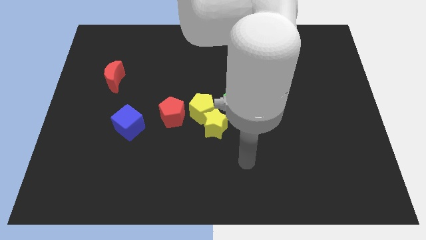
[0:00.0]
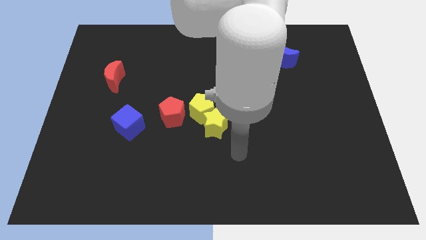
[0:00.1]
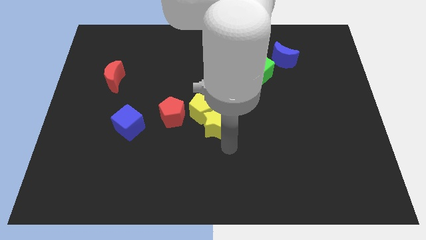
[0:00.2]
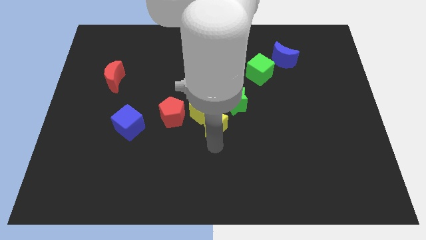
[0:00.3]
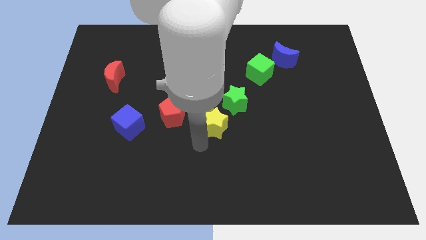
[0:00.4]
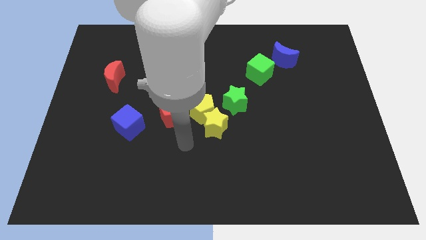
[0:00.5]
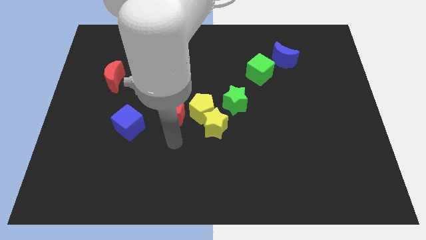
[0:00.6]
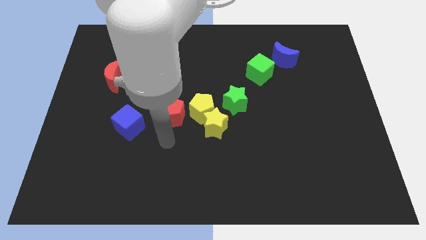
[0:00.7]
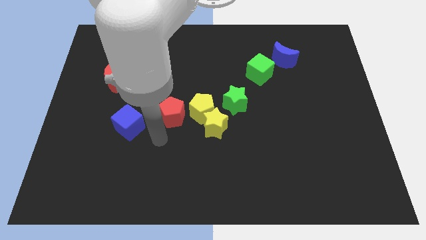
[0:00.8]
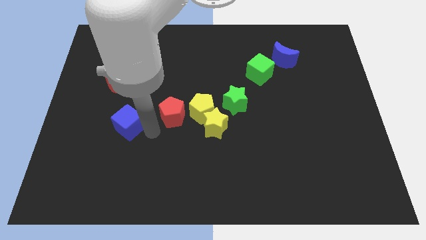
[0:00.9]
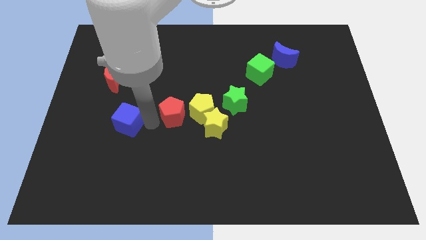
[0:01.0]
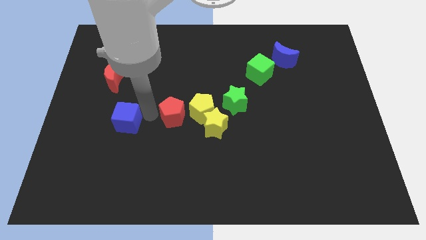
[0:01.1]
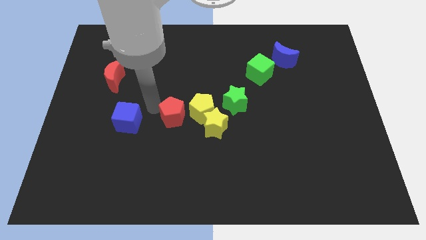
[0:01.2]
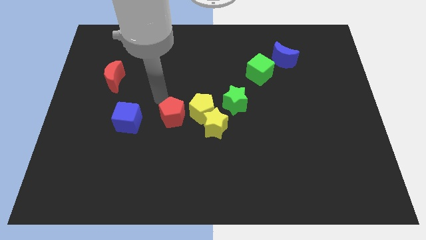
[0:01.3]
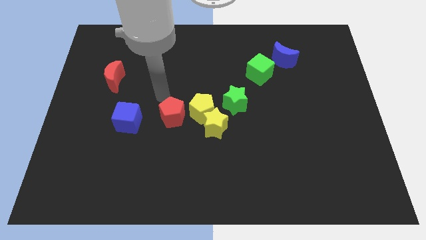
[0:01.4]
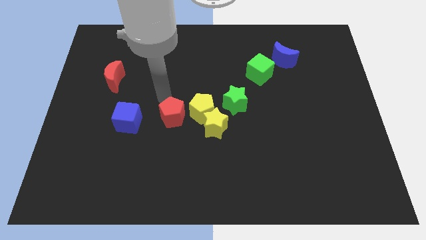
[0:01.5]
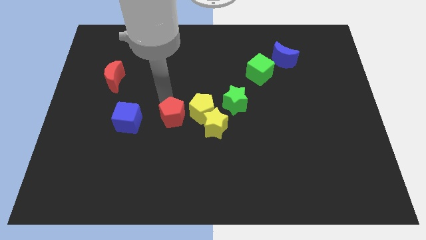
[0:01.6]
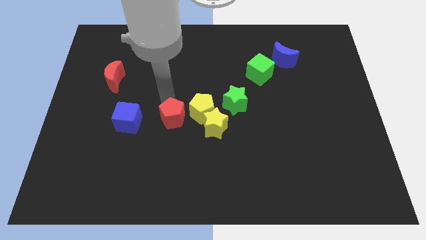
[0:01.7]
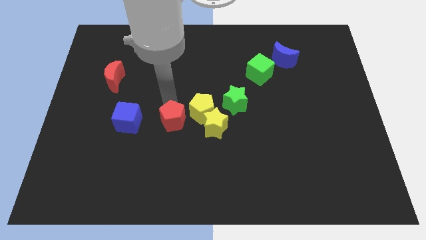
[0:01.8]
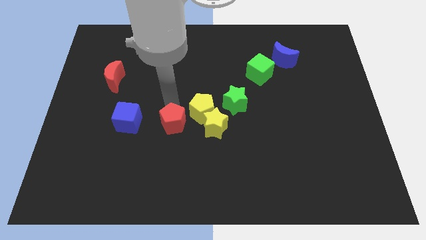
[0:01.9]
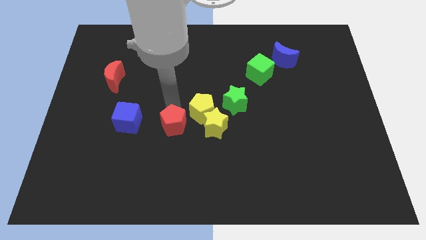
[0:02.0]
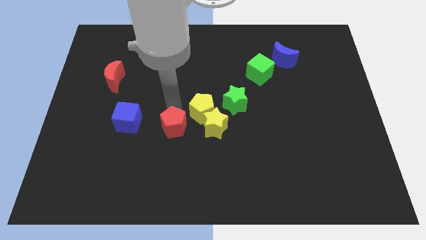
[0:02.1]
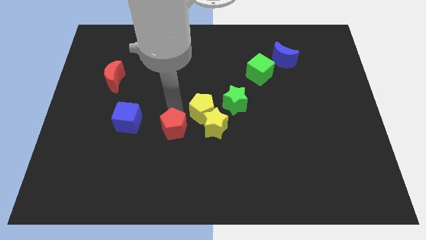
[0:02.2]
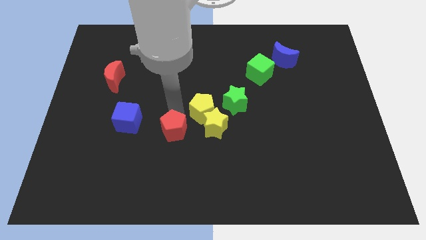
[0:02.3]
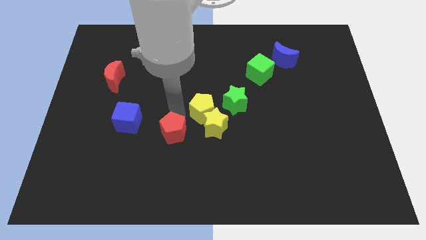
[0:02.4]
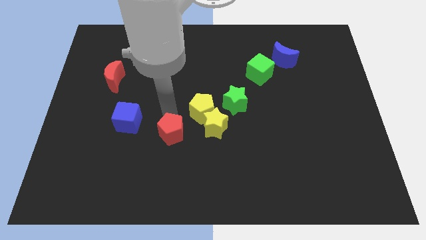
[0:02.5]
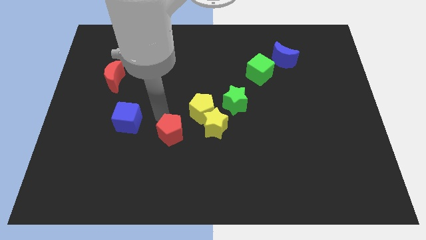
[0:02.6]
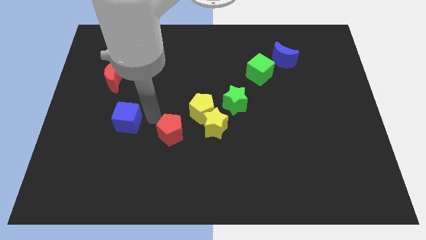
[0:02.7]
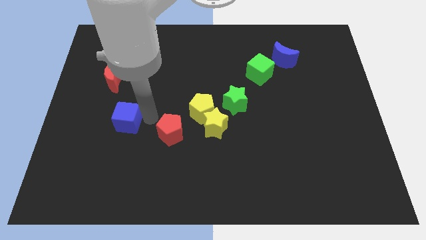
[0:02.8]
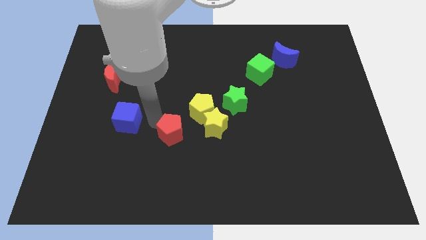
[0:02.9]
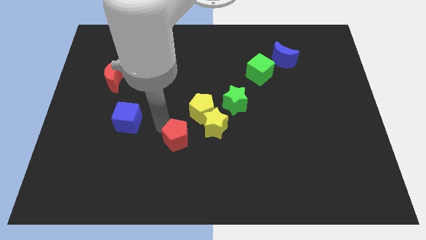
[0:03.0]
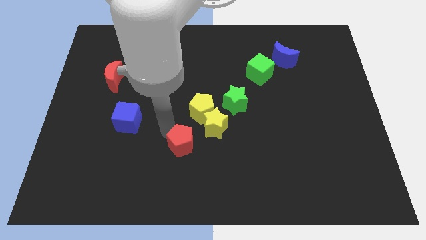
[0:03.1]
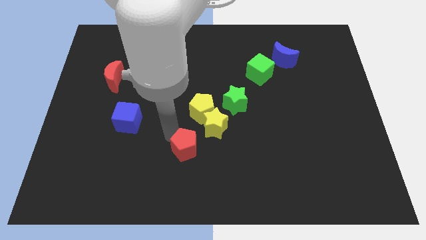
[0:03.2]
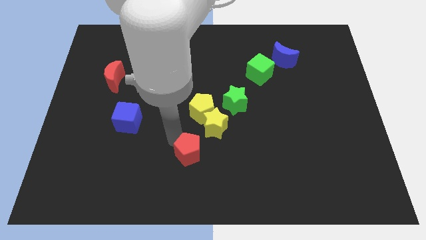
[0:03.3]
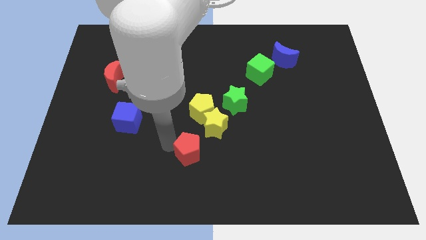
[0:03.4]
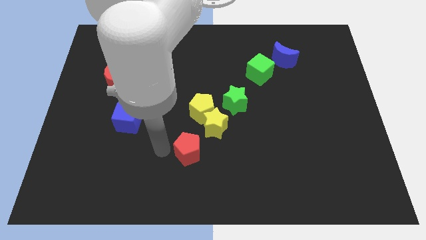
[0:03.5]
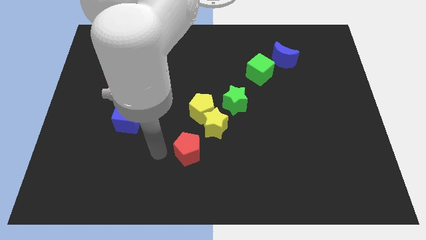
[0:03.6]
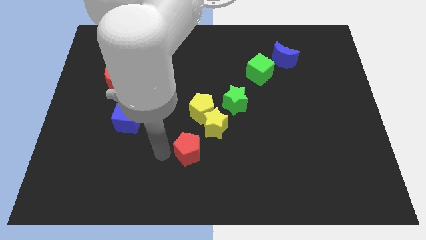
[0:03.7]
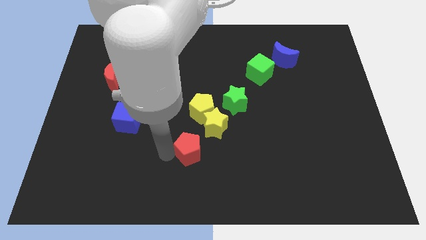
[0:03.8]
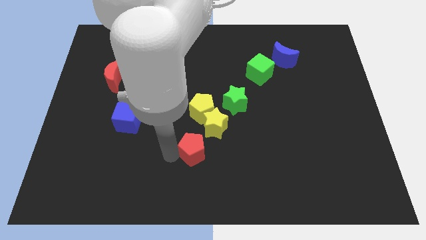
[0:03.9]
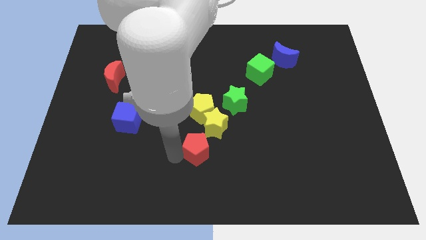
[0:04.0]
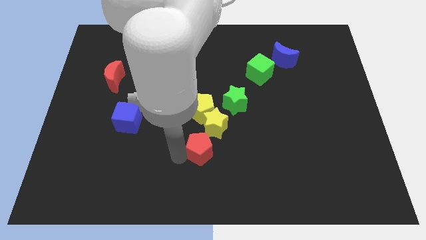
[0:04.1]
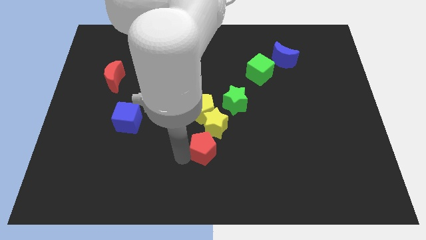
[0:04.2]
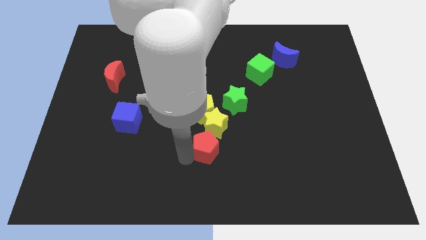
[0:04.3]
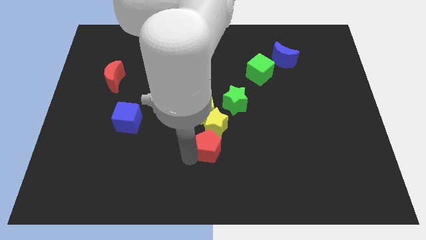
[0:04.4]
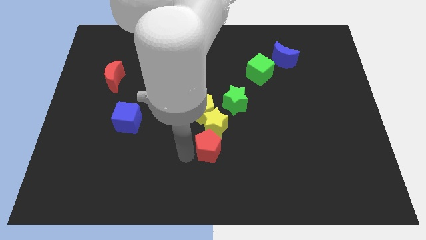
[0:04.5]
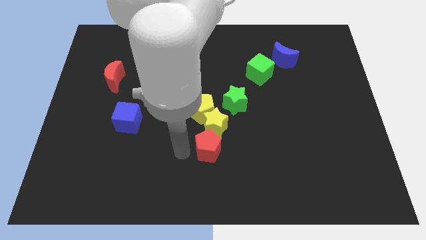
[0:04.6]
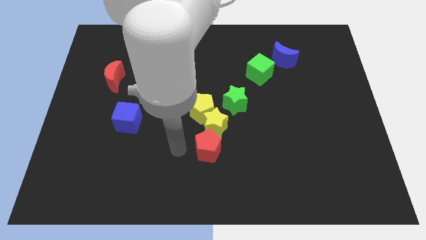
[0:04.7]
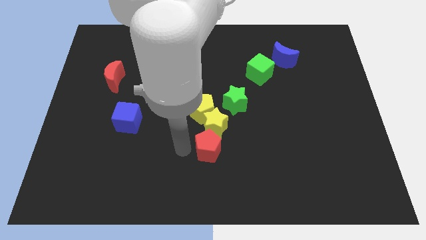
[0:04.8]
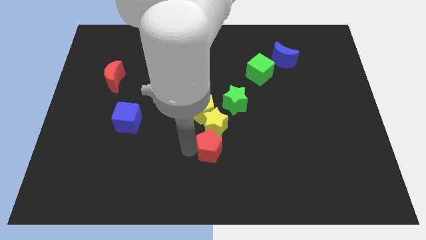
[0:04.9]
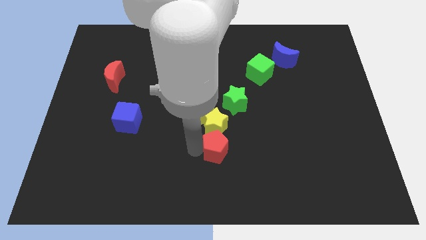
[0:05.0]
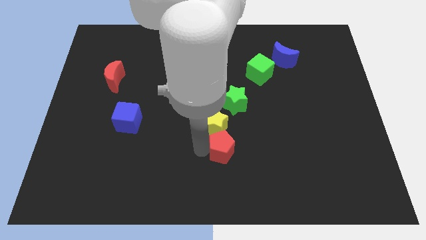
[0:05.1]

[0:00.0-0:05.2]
move the red pentagon right somewhat

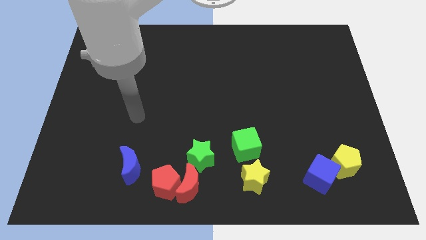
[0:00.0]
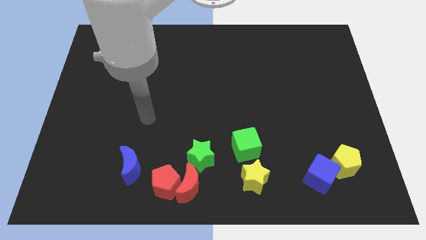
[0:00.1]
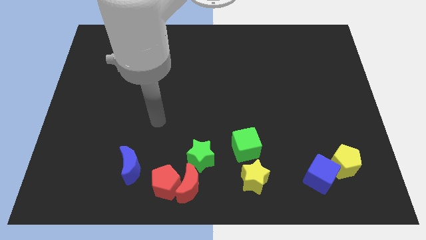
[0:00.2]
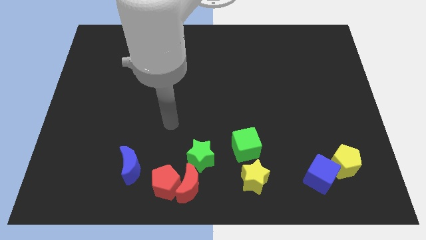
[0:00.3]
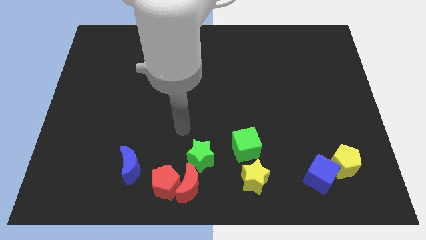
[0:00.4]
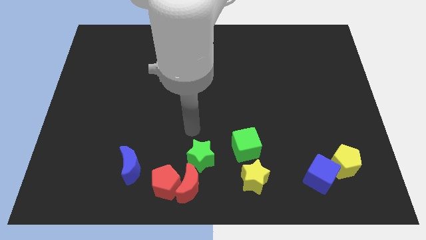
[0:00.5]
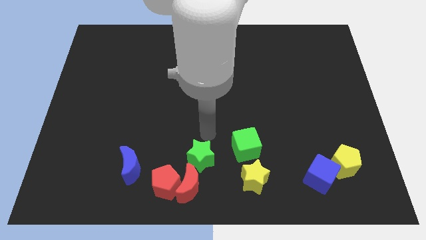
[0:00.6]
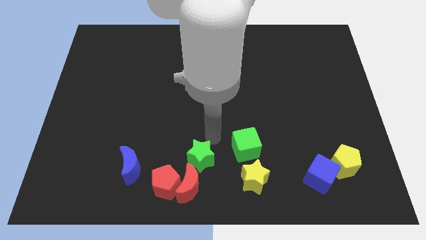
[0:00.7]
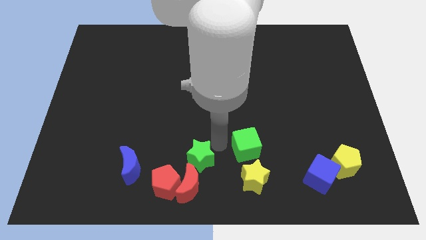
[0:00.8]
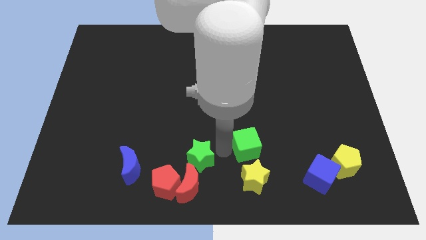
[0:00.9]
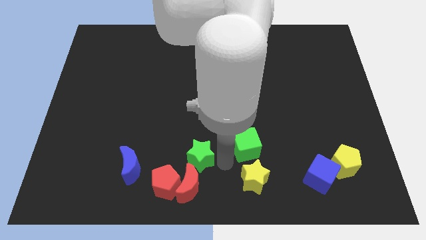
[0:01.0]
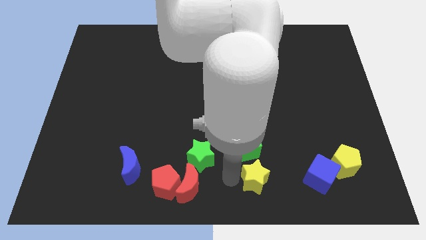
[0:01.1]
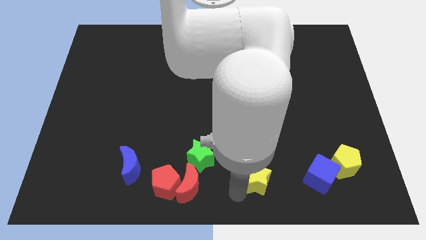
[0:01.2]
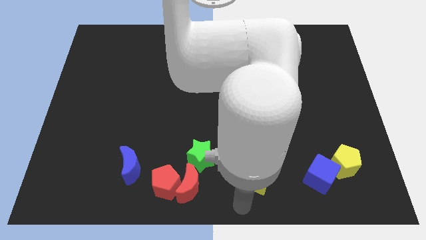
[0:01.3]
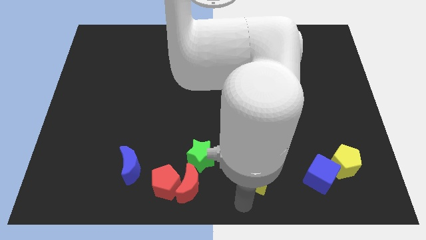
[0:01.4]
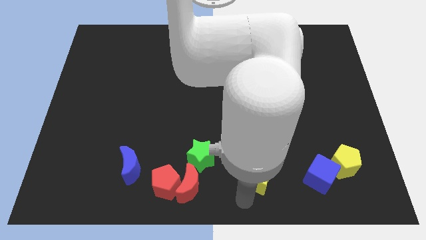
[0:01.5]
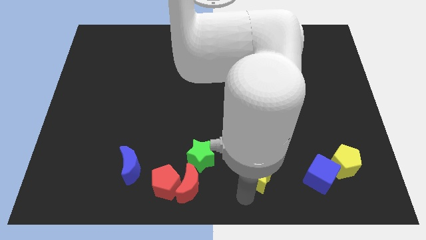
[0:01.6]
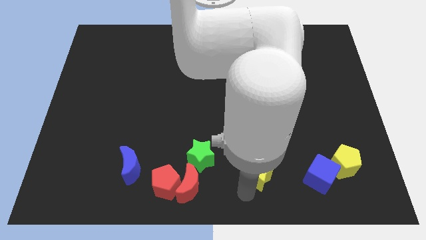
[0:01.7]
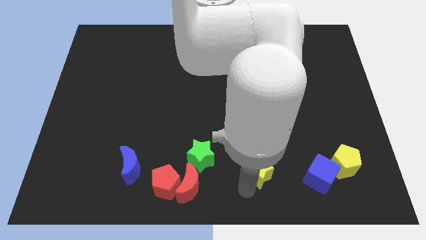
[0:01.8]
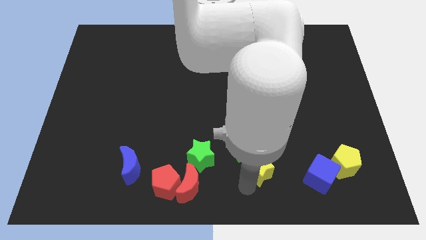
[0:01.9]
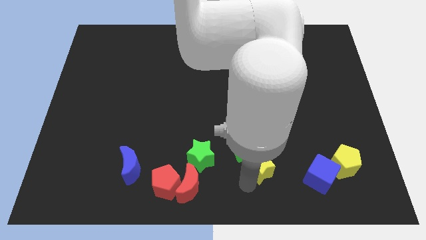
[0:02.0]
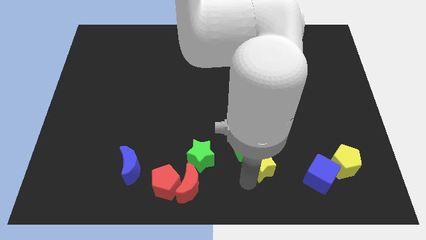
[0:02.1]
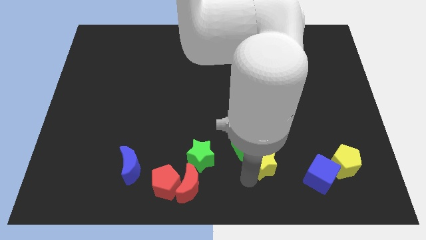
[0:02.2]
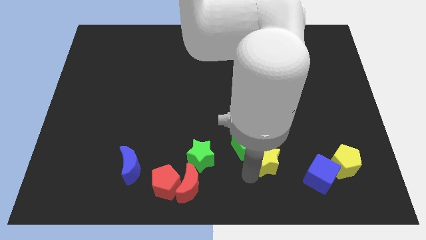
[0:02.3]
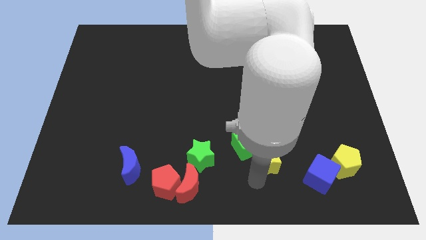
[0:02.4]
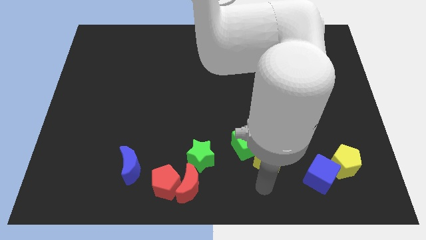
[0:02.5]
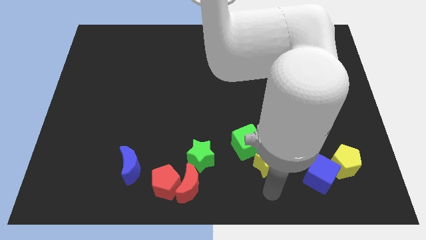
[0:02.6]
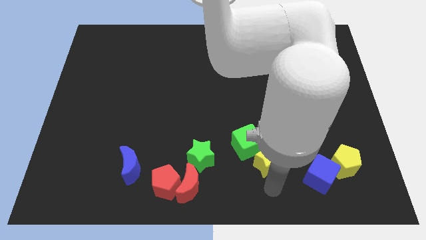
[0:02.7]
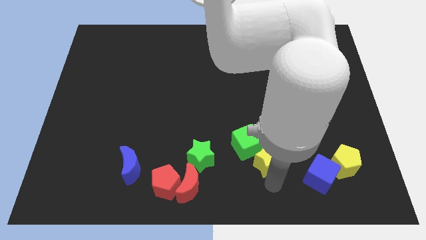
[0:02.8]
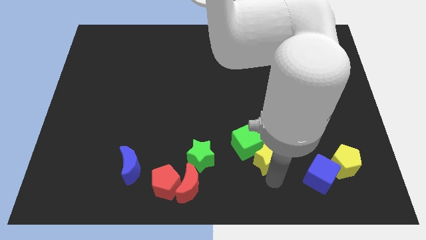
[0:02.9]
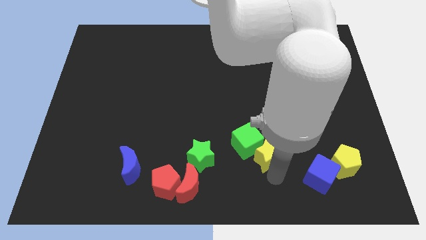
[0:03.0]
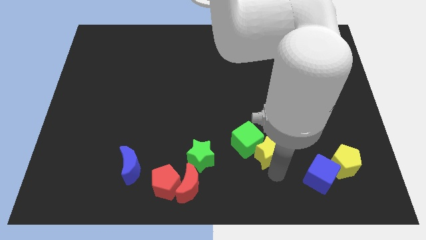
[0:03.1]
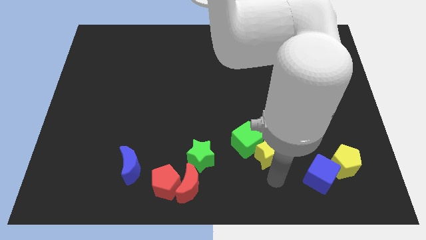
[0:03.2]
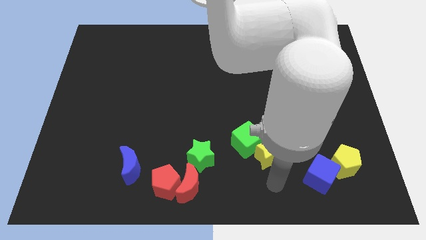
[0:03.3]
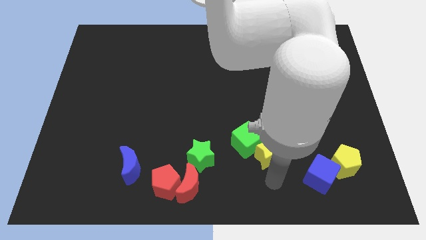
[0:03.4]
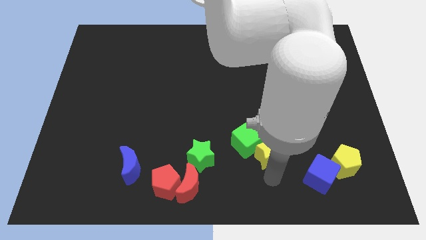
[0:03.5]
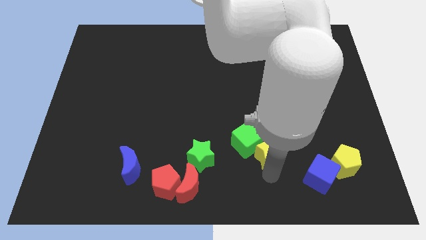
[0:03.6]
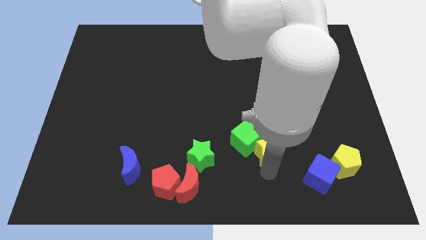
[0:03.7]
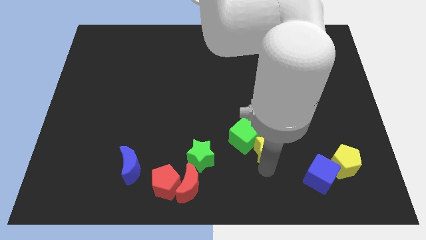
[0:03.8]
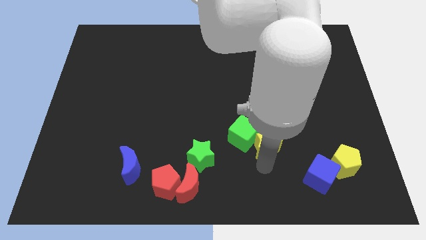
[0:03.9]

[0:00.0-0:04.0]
push the yellow star a little bit upwards
